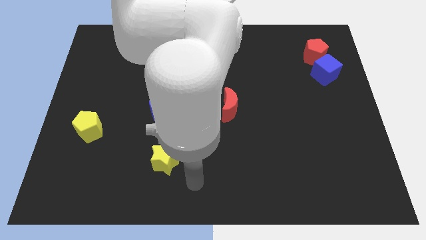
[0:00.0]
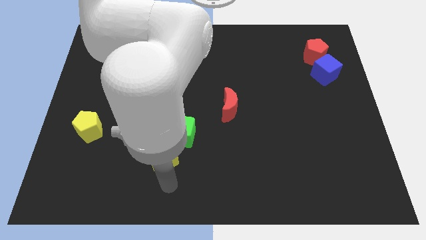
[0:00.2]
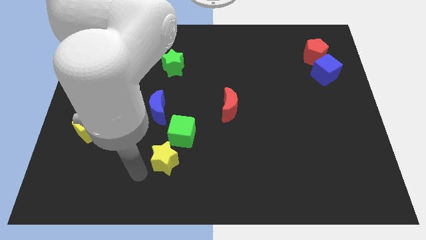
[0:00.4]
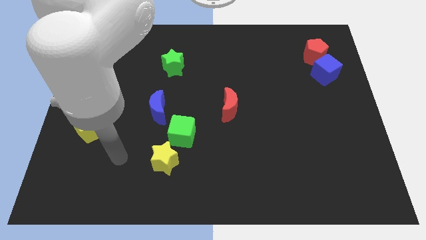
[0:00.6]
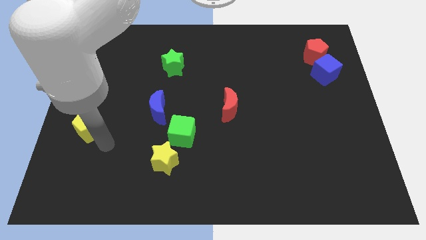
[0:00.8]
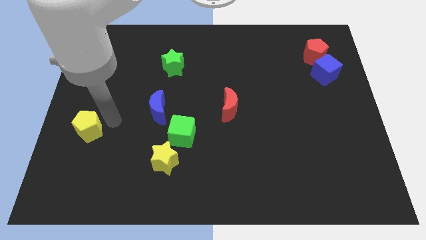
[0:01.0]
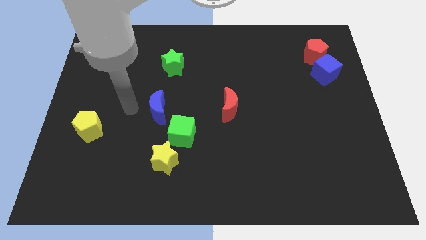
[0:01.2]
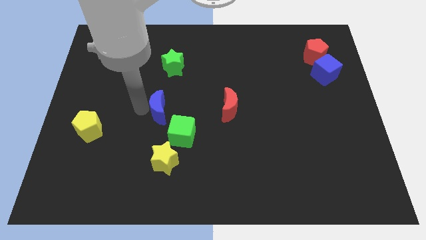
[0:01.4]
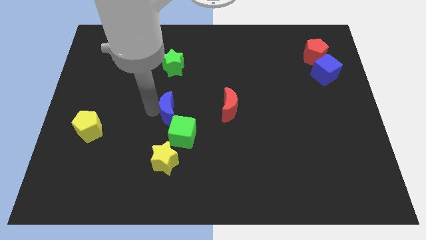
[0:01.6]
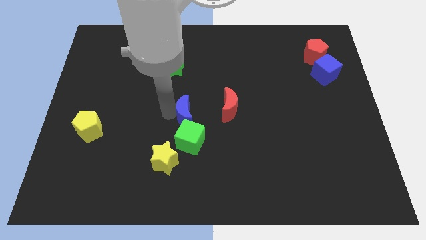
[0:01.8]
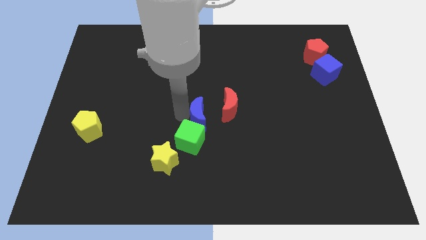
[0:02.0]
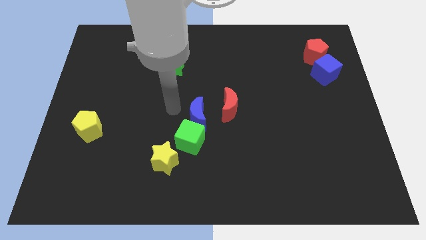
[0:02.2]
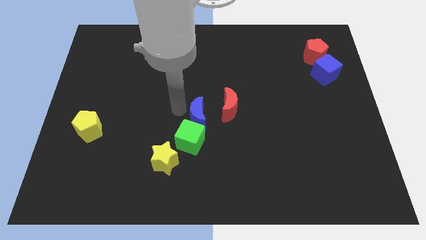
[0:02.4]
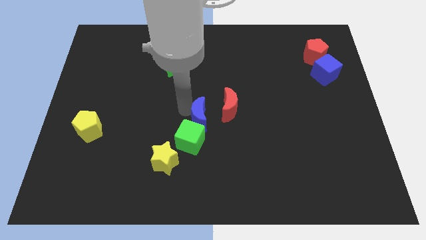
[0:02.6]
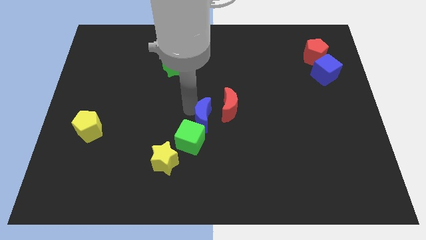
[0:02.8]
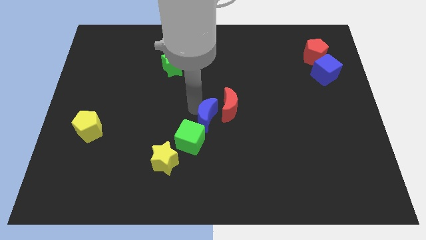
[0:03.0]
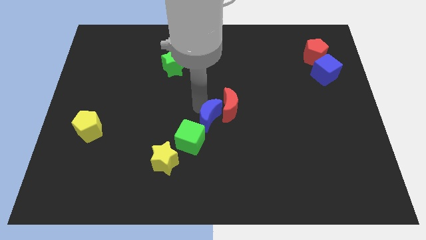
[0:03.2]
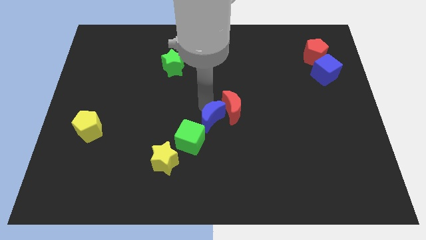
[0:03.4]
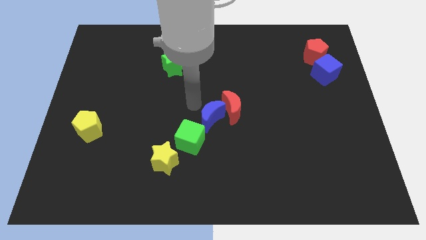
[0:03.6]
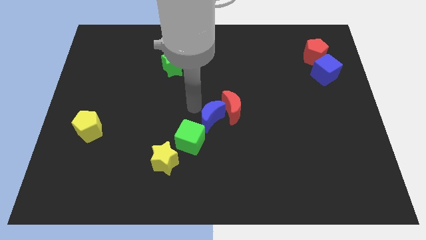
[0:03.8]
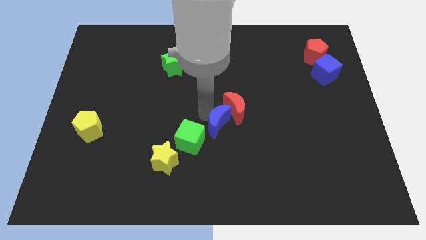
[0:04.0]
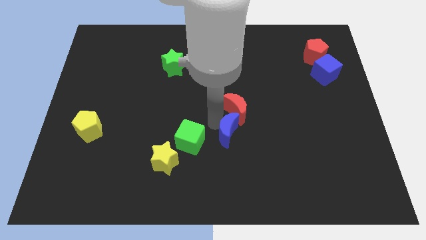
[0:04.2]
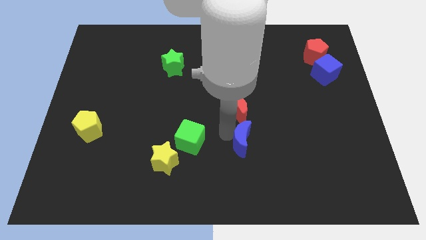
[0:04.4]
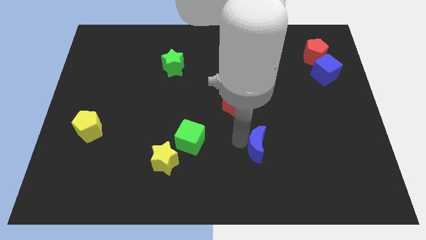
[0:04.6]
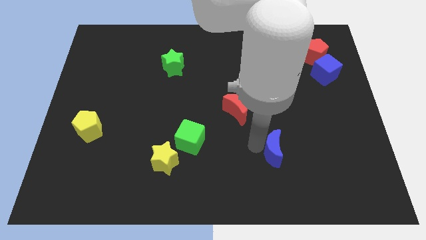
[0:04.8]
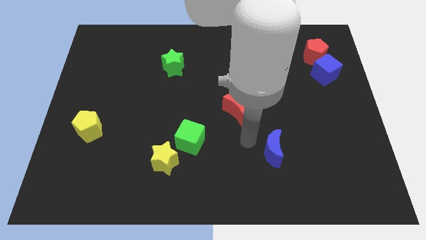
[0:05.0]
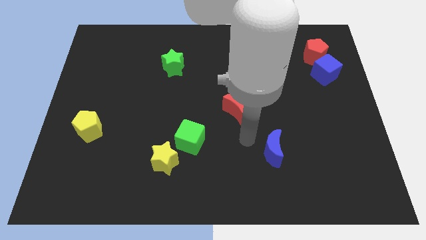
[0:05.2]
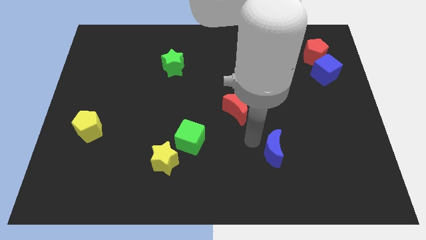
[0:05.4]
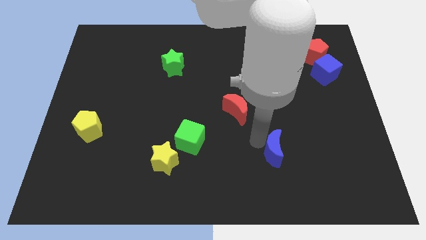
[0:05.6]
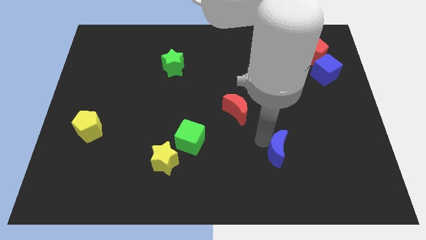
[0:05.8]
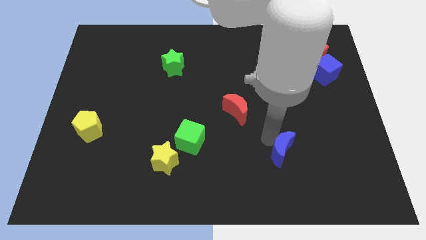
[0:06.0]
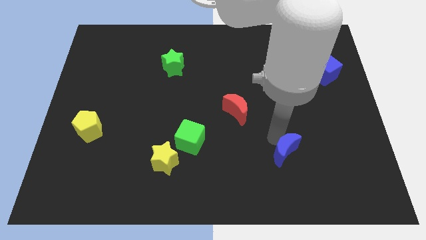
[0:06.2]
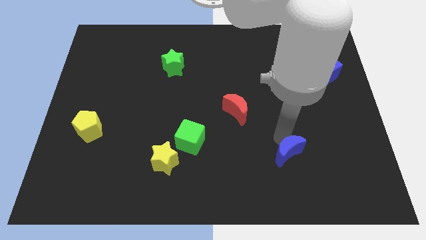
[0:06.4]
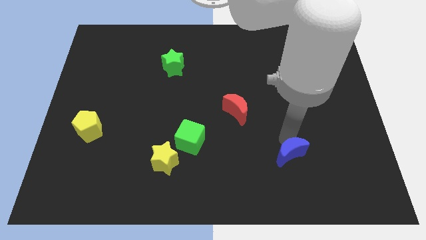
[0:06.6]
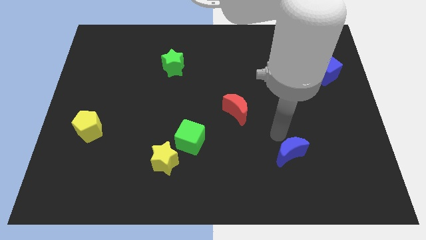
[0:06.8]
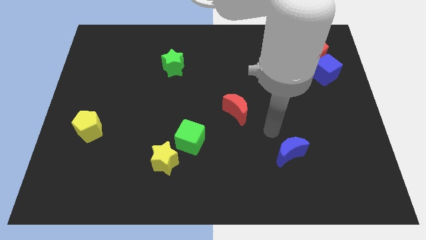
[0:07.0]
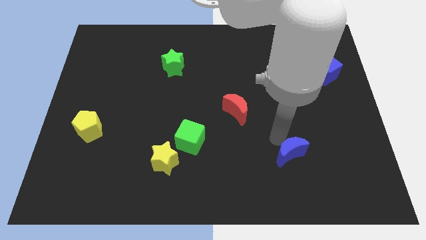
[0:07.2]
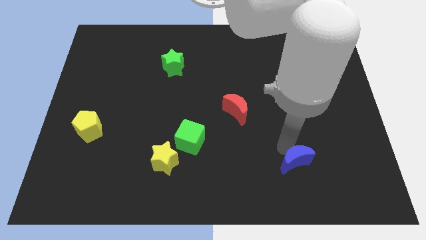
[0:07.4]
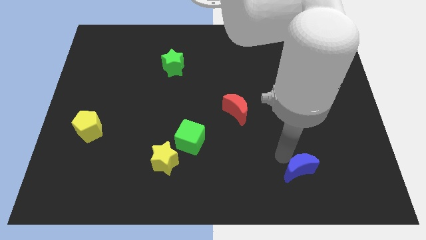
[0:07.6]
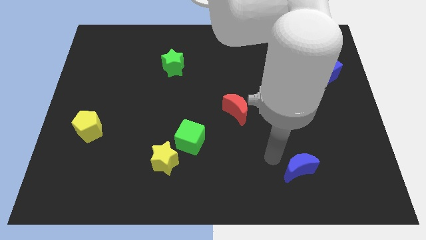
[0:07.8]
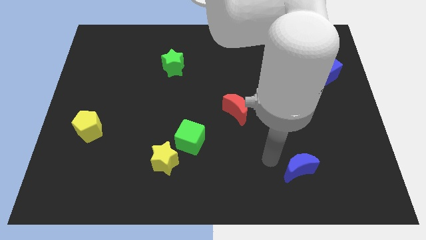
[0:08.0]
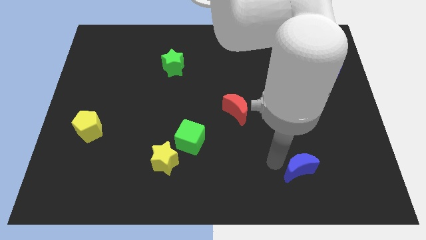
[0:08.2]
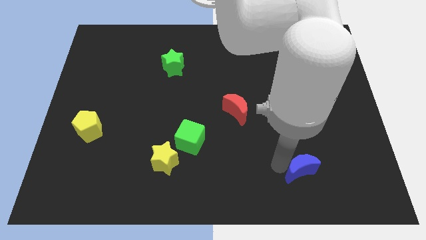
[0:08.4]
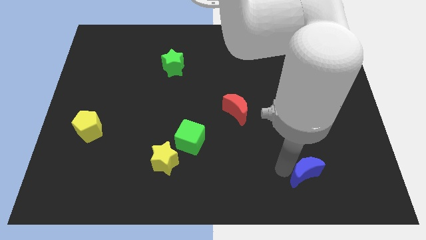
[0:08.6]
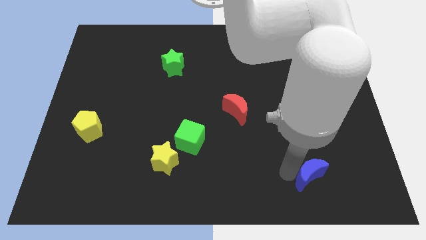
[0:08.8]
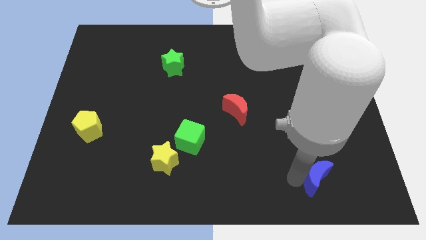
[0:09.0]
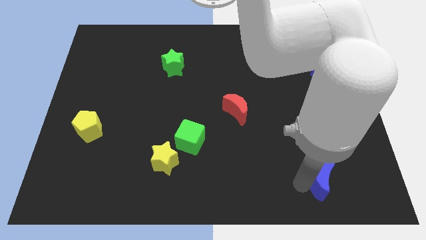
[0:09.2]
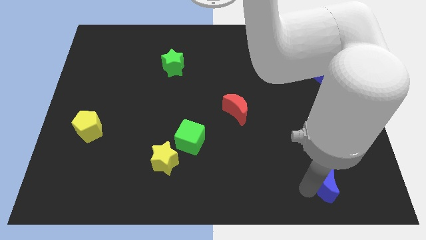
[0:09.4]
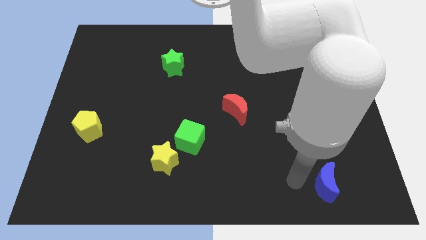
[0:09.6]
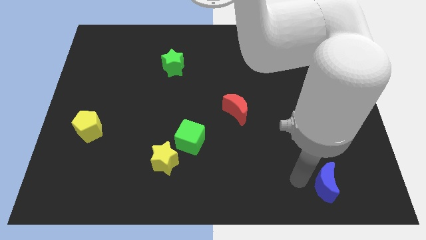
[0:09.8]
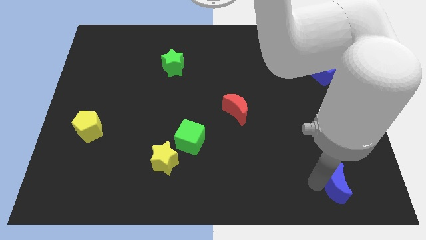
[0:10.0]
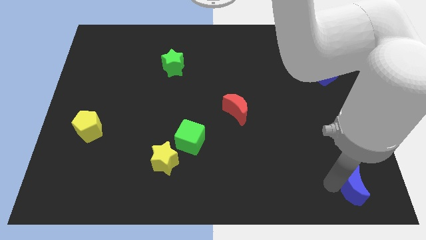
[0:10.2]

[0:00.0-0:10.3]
put the blue moon to the bottom right
